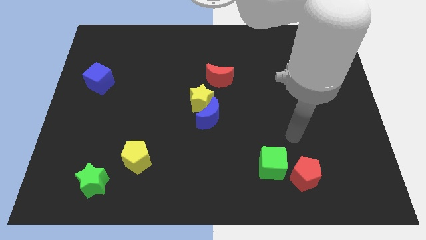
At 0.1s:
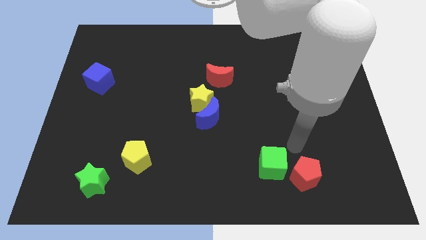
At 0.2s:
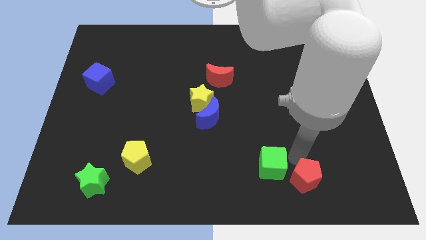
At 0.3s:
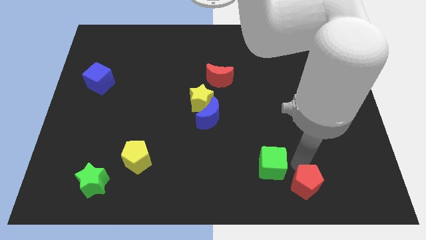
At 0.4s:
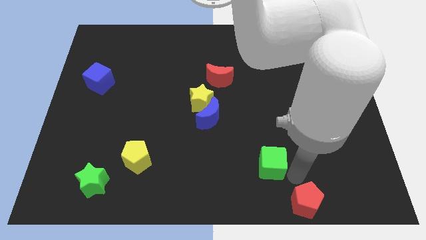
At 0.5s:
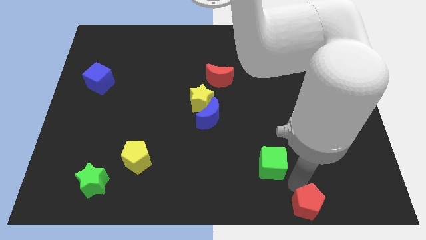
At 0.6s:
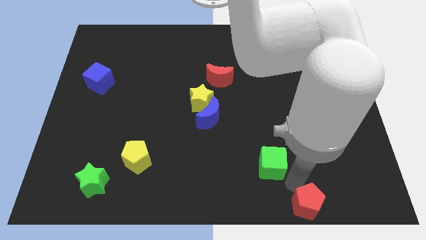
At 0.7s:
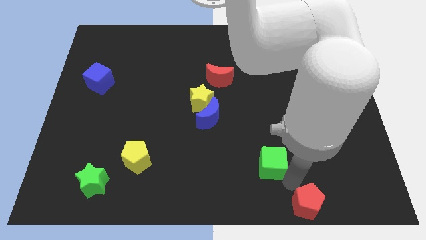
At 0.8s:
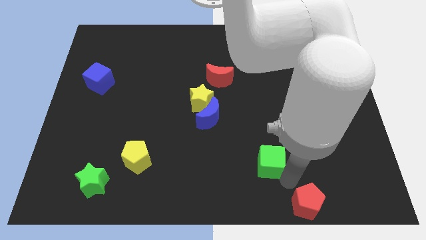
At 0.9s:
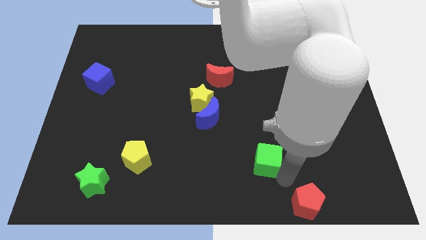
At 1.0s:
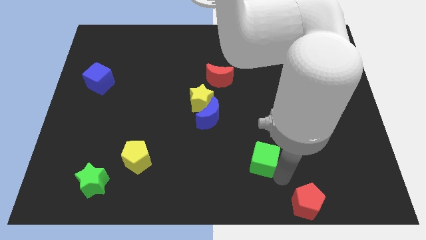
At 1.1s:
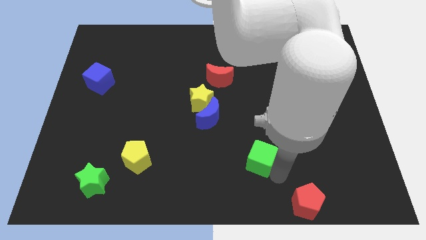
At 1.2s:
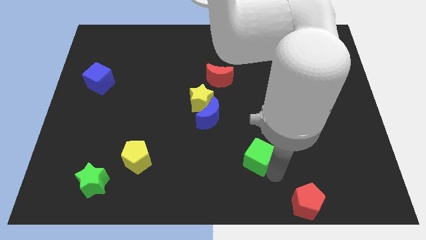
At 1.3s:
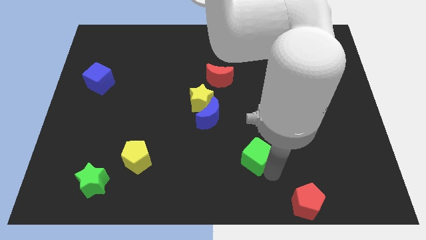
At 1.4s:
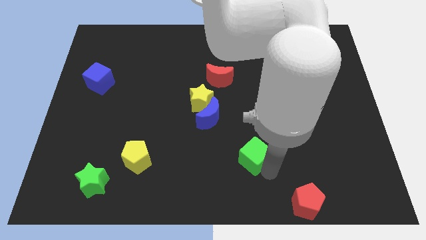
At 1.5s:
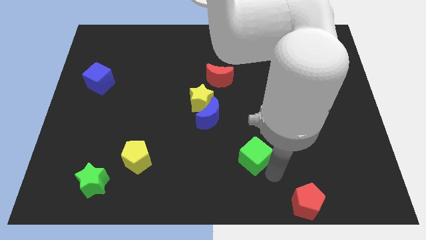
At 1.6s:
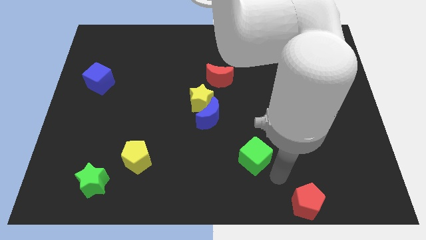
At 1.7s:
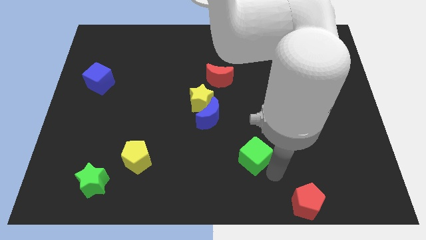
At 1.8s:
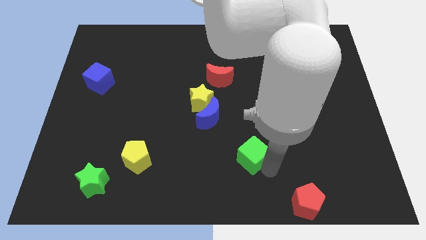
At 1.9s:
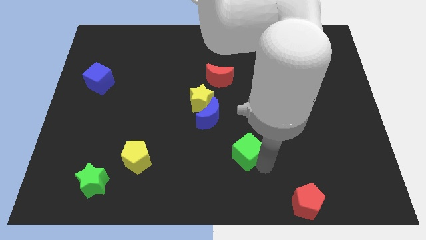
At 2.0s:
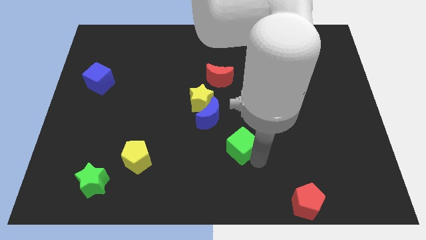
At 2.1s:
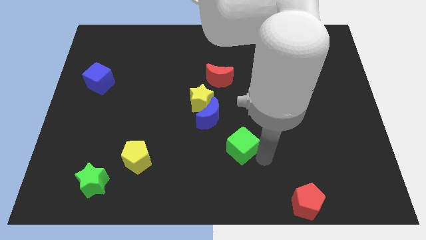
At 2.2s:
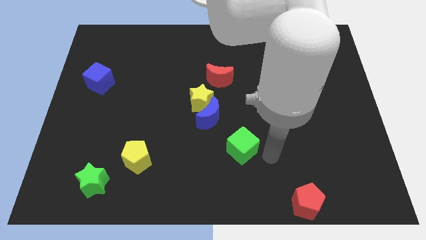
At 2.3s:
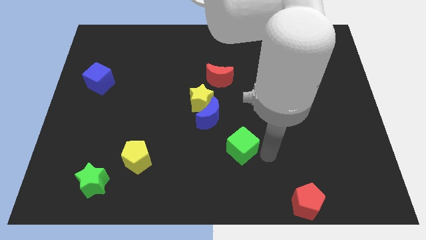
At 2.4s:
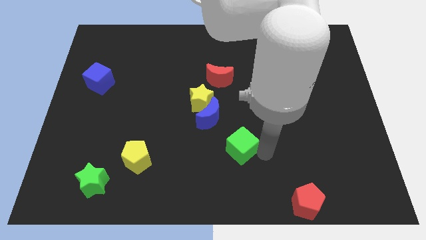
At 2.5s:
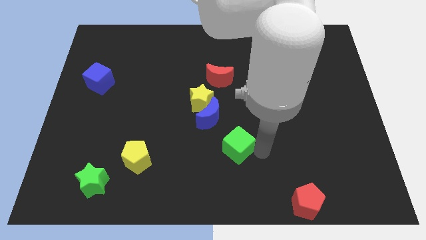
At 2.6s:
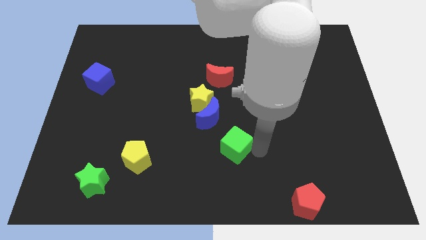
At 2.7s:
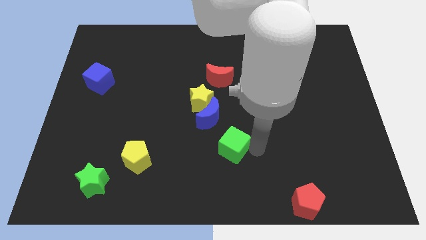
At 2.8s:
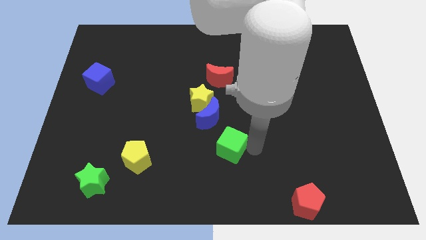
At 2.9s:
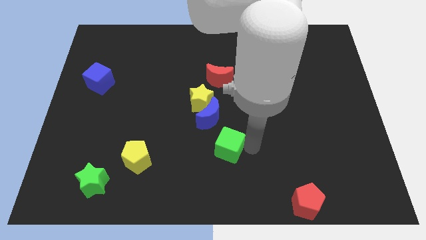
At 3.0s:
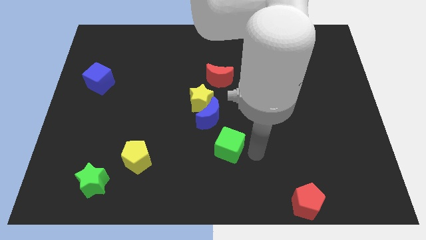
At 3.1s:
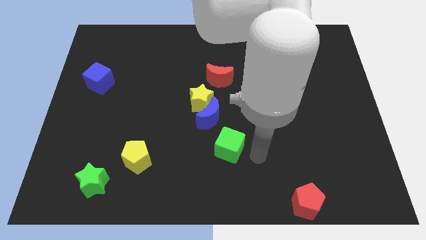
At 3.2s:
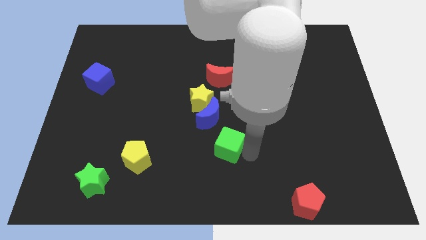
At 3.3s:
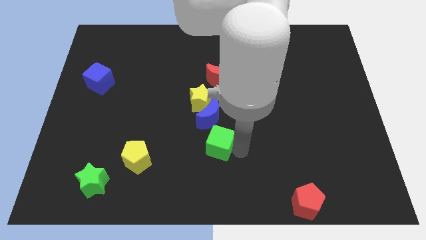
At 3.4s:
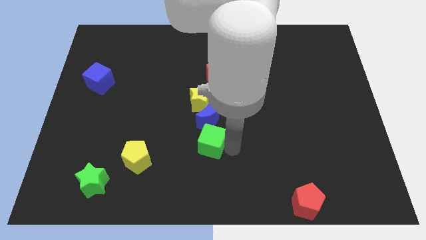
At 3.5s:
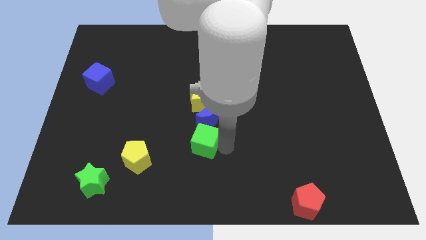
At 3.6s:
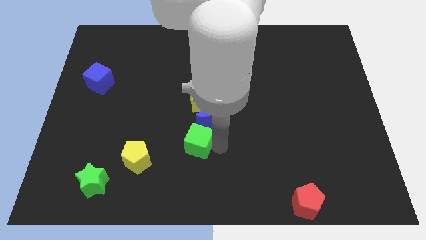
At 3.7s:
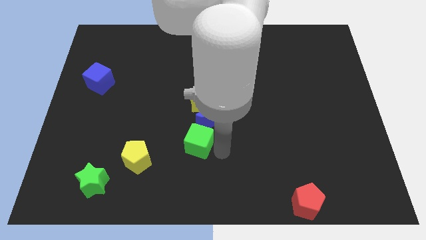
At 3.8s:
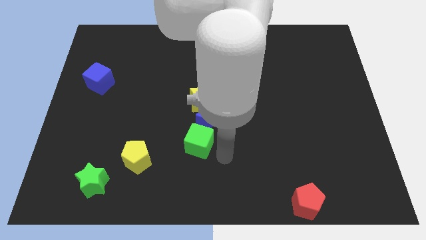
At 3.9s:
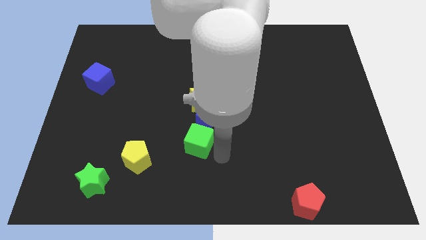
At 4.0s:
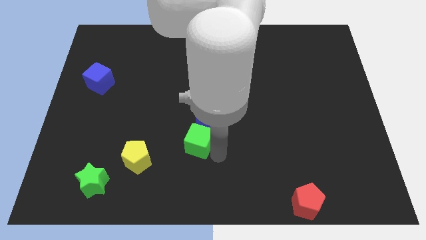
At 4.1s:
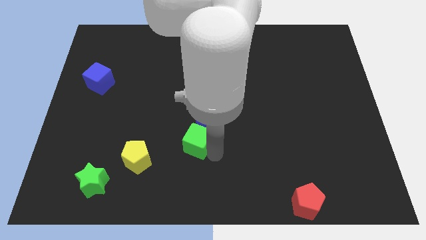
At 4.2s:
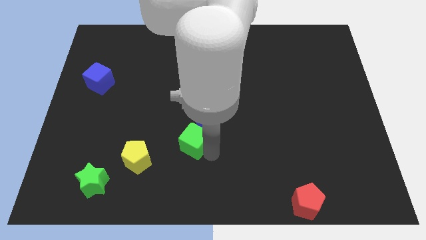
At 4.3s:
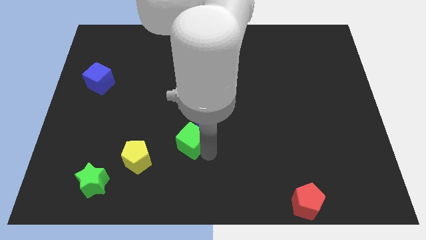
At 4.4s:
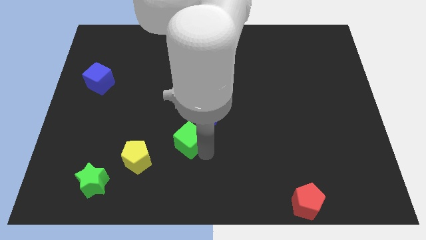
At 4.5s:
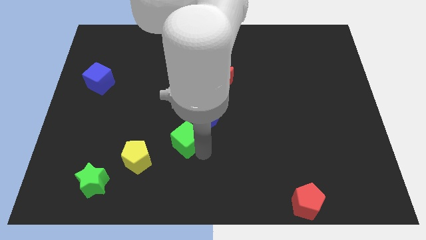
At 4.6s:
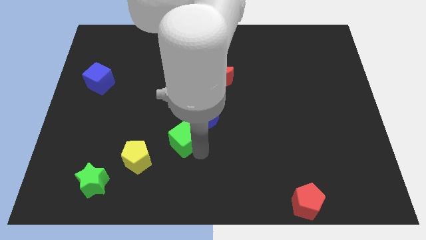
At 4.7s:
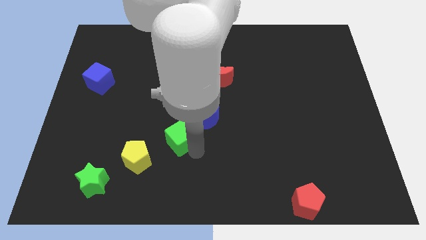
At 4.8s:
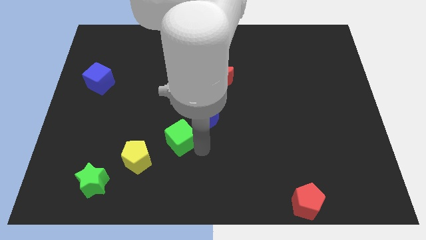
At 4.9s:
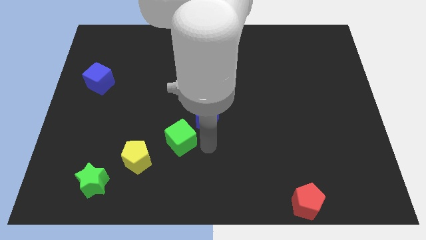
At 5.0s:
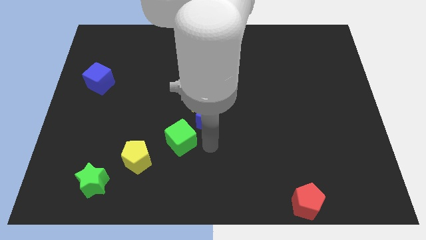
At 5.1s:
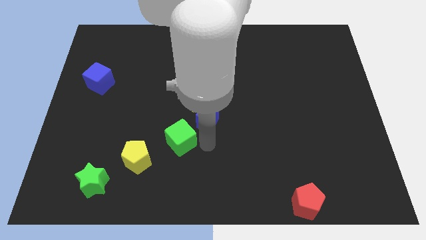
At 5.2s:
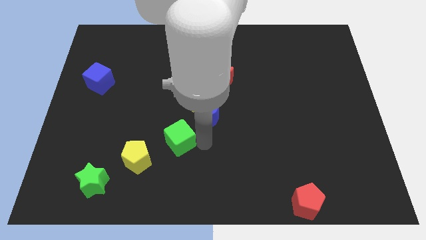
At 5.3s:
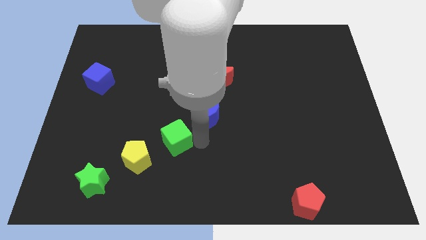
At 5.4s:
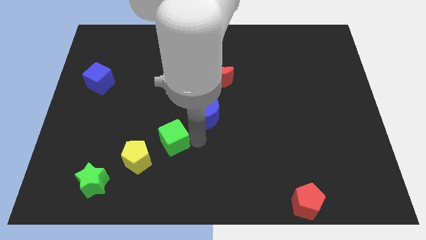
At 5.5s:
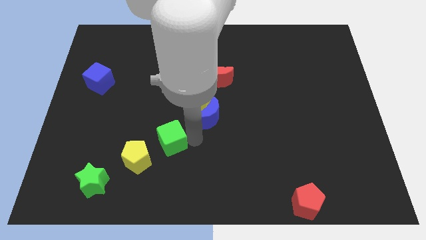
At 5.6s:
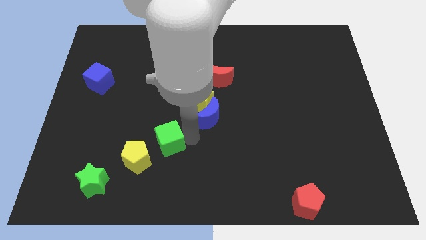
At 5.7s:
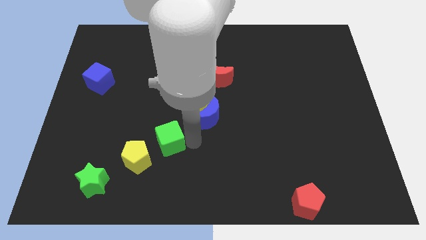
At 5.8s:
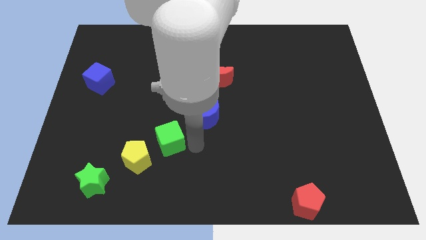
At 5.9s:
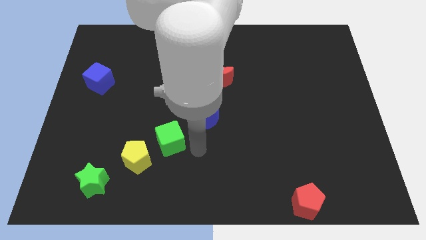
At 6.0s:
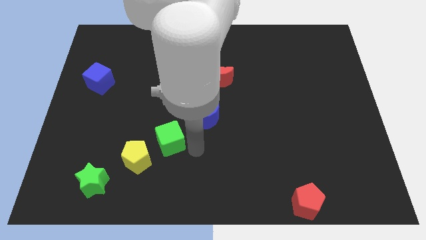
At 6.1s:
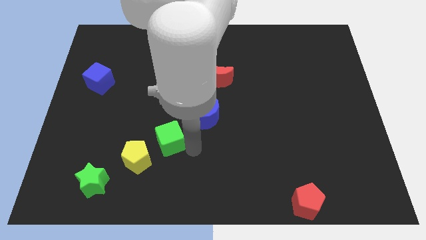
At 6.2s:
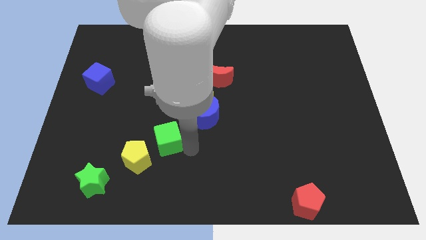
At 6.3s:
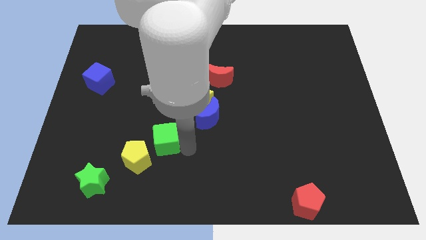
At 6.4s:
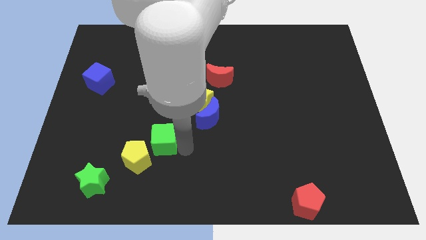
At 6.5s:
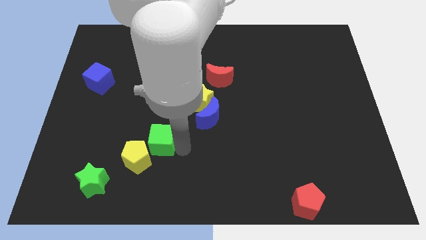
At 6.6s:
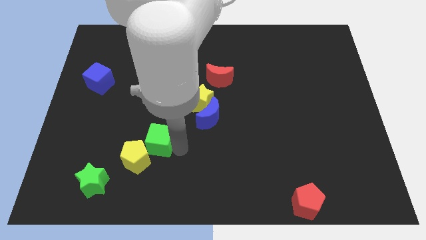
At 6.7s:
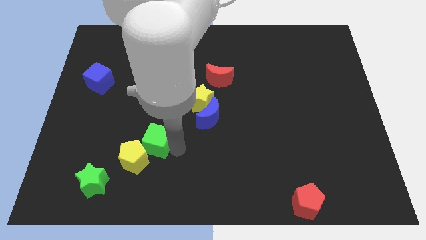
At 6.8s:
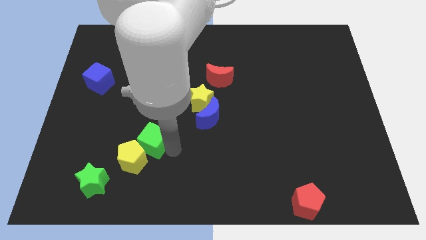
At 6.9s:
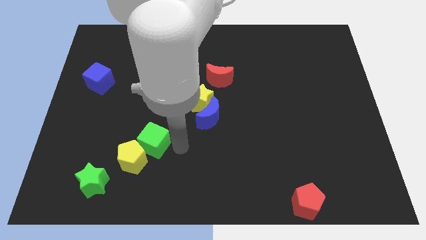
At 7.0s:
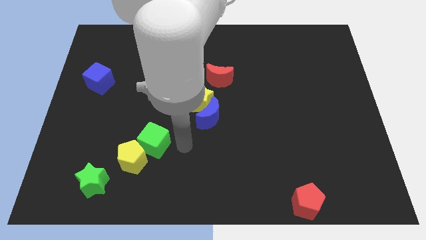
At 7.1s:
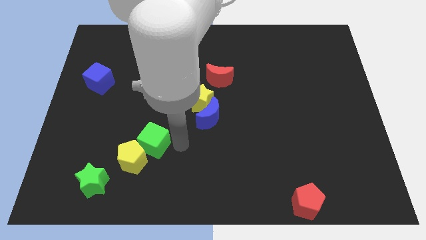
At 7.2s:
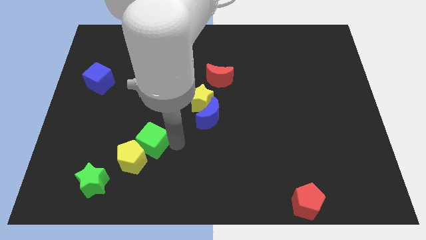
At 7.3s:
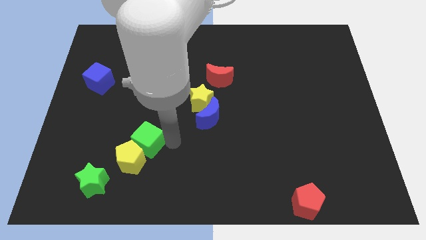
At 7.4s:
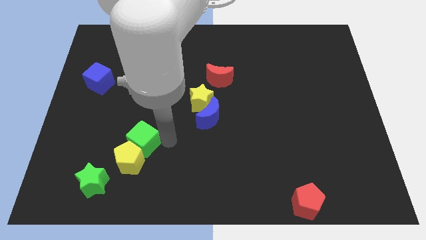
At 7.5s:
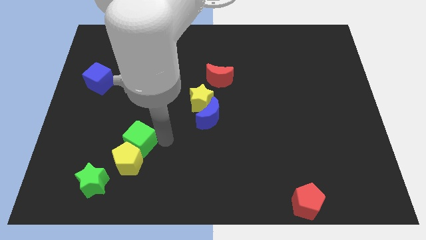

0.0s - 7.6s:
put the green cube to the top left of the yellow pentagon
